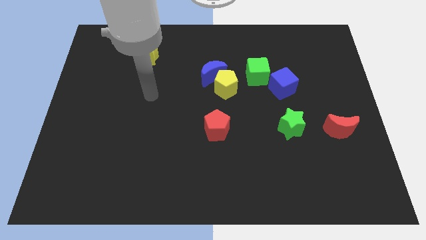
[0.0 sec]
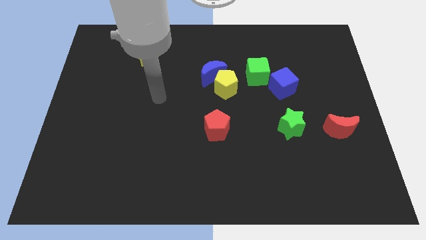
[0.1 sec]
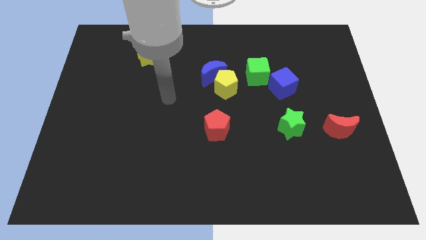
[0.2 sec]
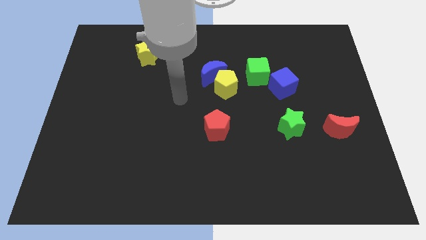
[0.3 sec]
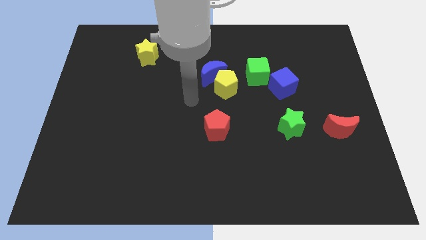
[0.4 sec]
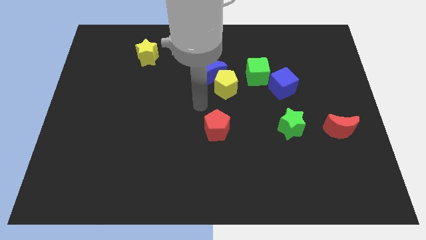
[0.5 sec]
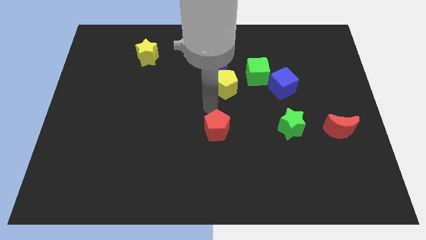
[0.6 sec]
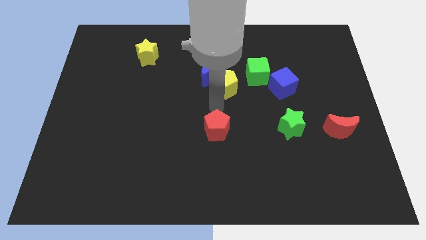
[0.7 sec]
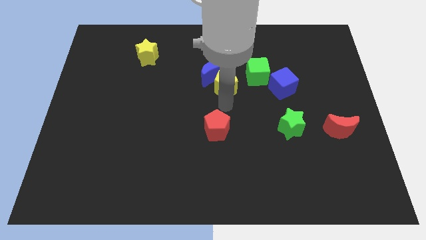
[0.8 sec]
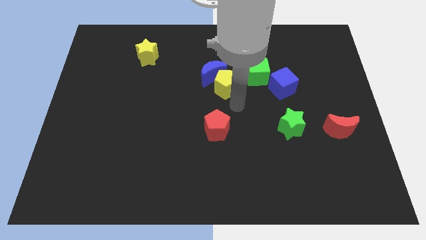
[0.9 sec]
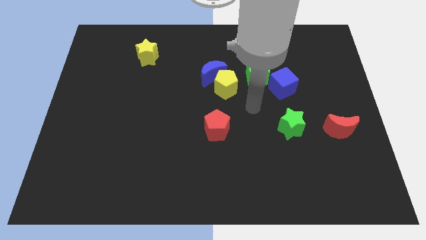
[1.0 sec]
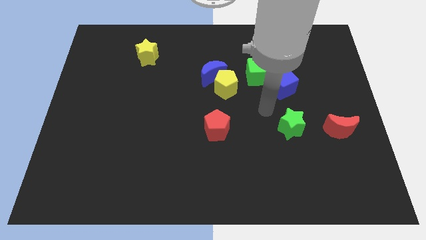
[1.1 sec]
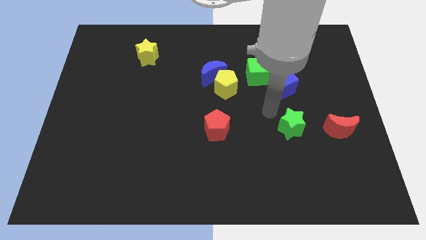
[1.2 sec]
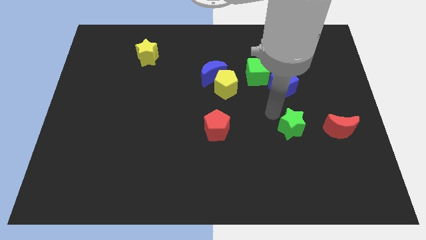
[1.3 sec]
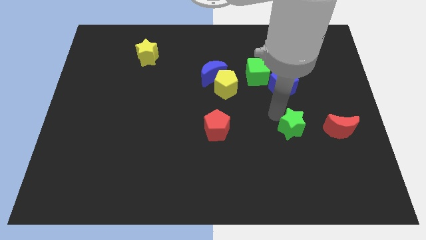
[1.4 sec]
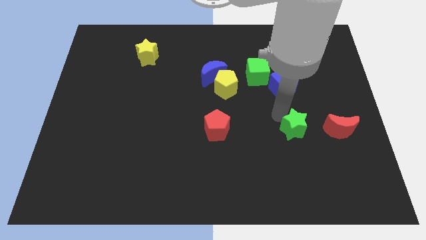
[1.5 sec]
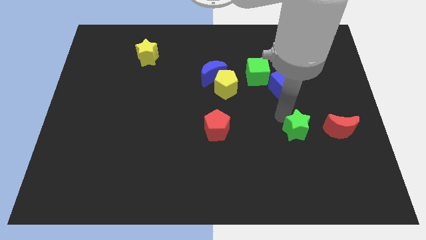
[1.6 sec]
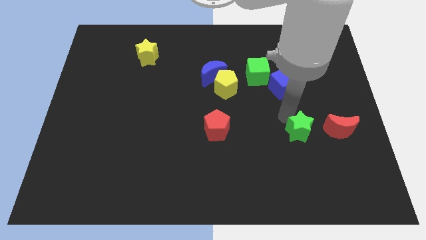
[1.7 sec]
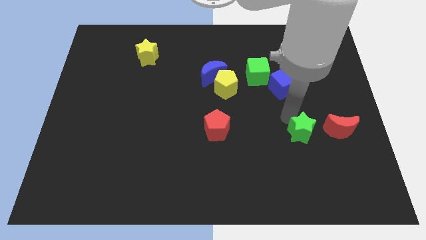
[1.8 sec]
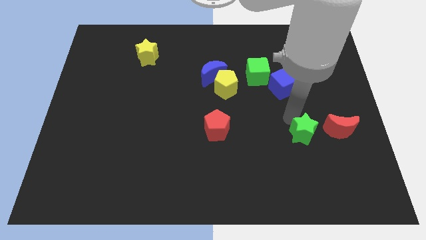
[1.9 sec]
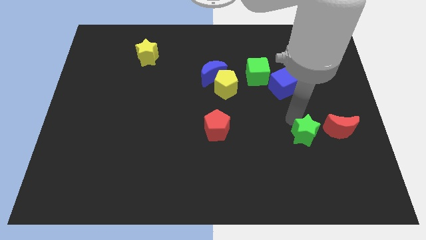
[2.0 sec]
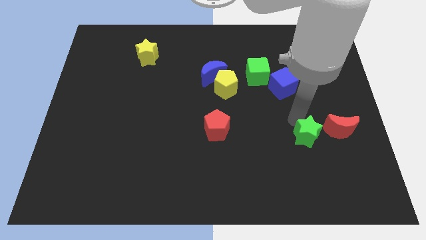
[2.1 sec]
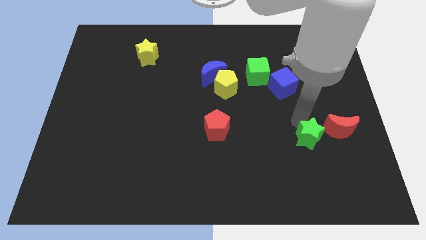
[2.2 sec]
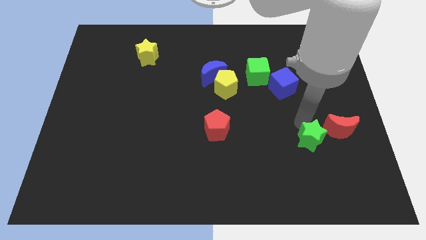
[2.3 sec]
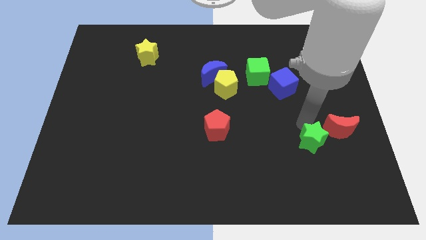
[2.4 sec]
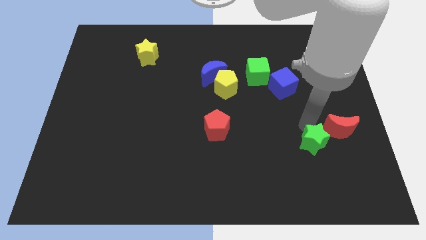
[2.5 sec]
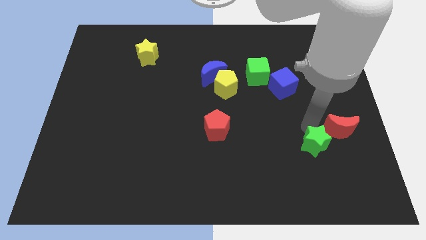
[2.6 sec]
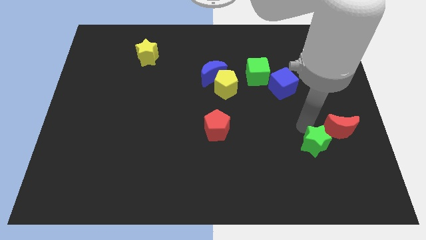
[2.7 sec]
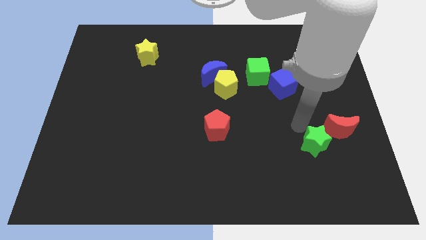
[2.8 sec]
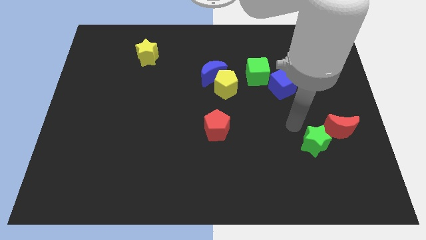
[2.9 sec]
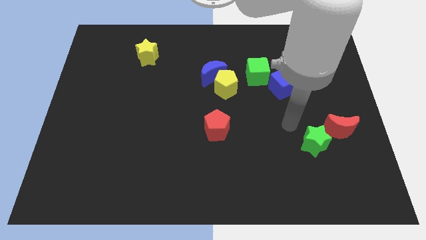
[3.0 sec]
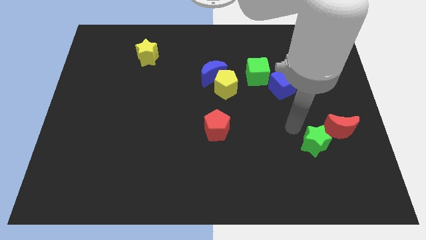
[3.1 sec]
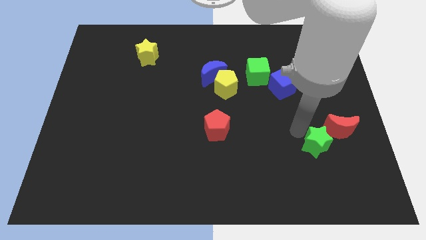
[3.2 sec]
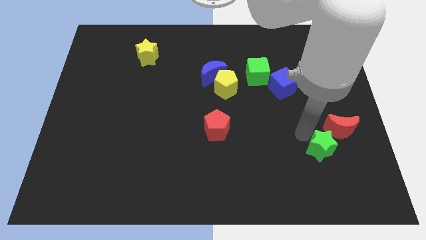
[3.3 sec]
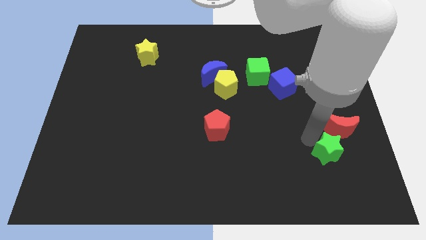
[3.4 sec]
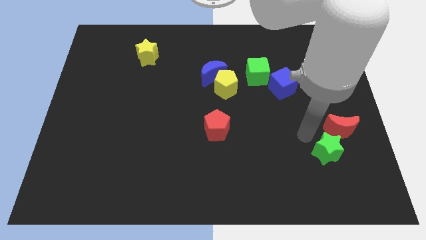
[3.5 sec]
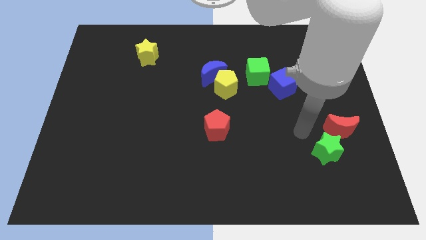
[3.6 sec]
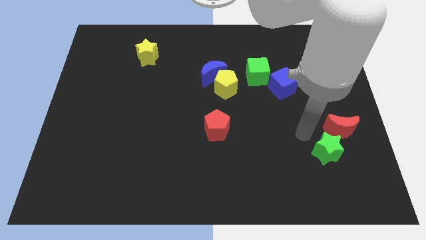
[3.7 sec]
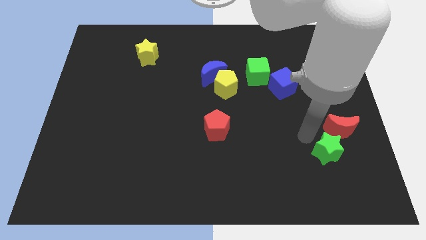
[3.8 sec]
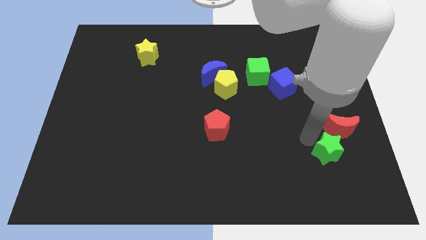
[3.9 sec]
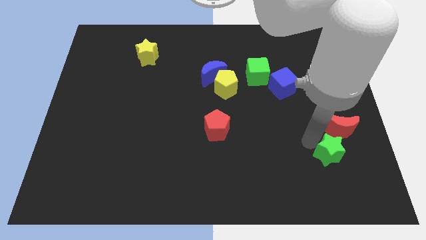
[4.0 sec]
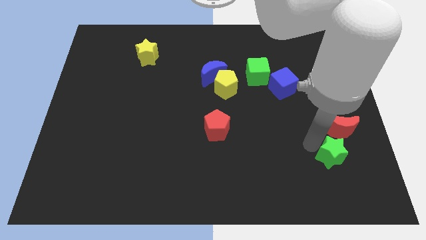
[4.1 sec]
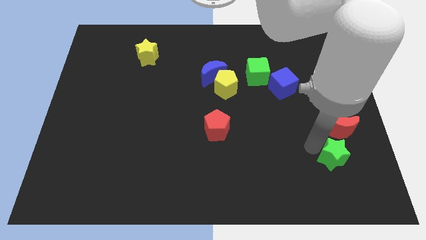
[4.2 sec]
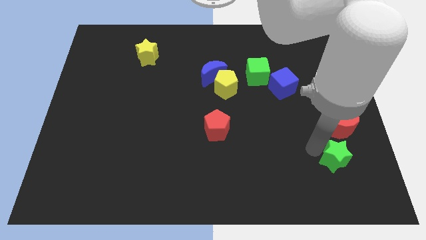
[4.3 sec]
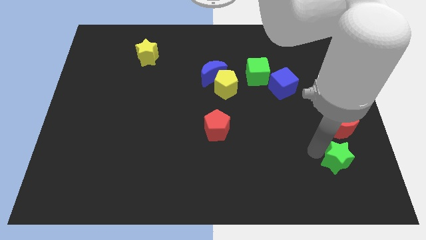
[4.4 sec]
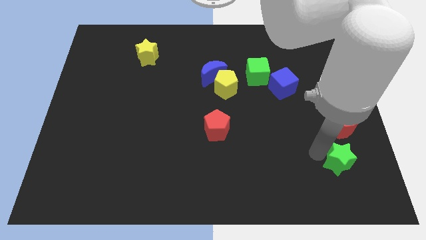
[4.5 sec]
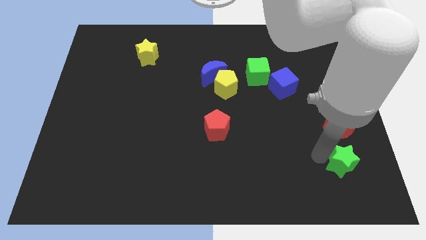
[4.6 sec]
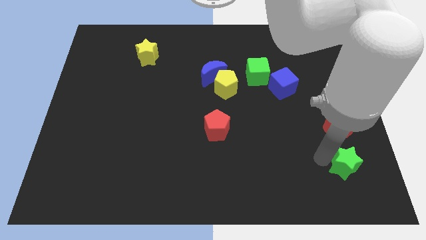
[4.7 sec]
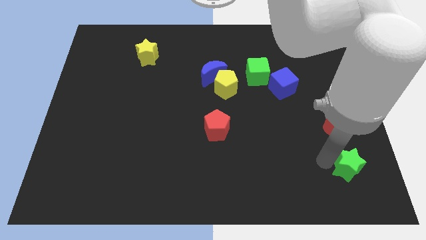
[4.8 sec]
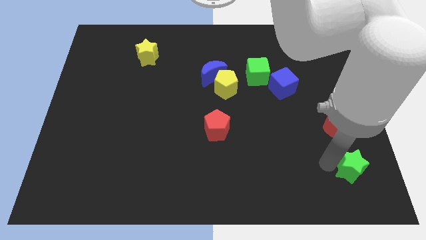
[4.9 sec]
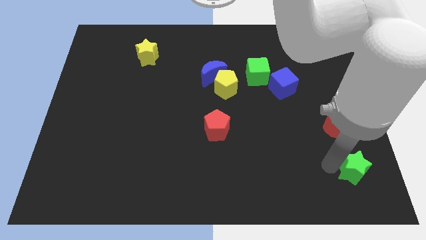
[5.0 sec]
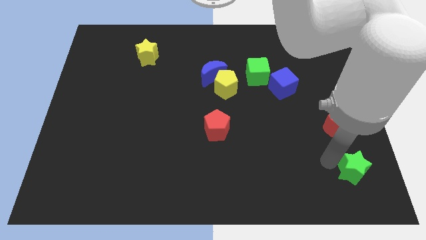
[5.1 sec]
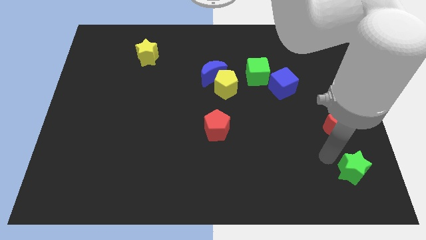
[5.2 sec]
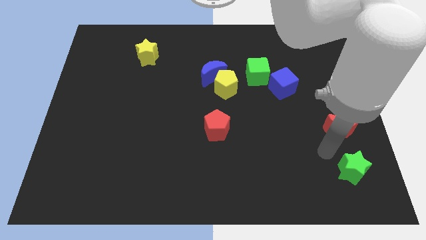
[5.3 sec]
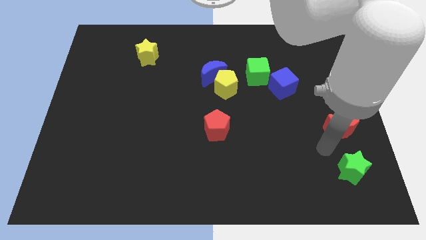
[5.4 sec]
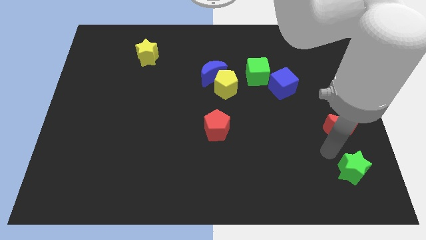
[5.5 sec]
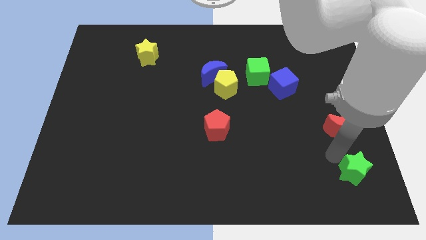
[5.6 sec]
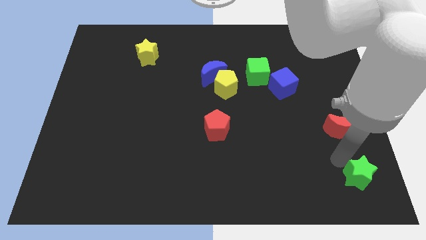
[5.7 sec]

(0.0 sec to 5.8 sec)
move the green star to the bottom right of the board
